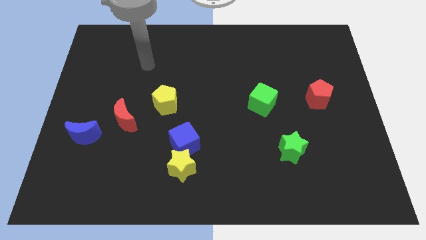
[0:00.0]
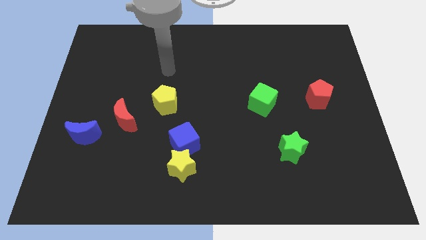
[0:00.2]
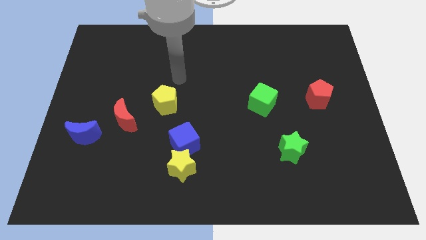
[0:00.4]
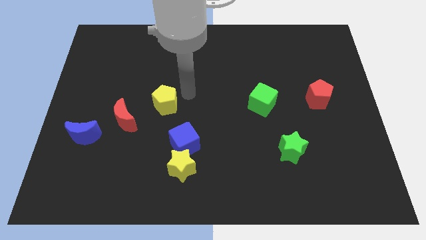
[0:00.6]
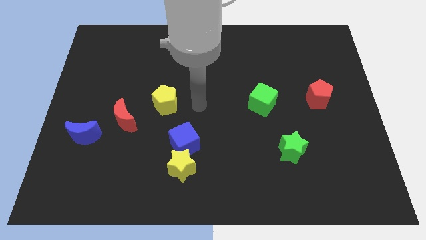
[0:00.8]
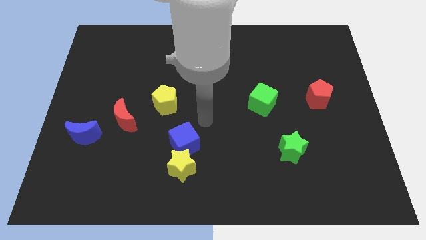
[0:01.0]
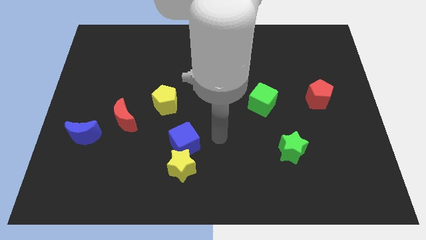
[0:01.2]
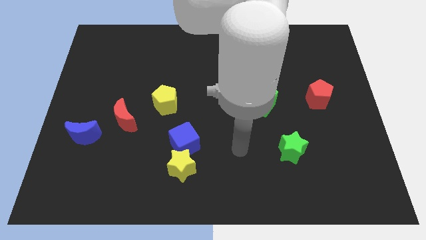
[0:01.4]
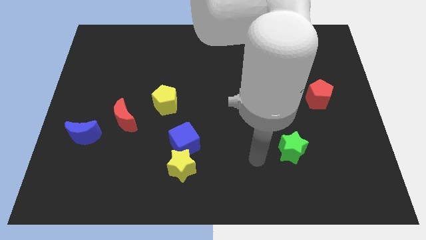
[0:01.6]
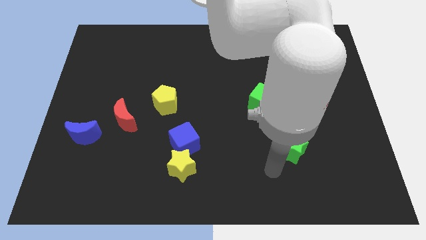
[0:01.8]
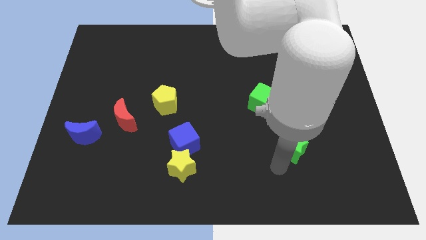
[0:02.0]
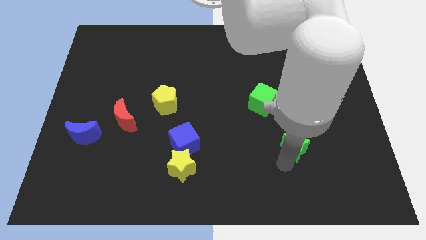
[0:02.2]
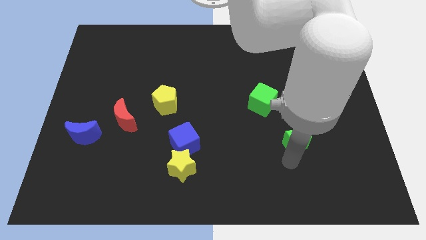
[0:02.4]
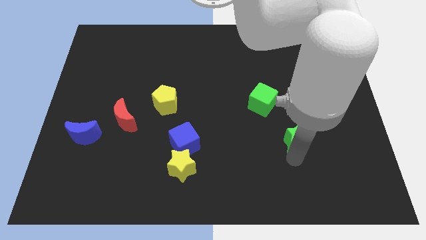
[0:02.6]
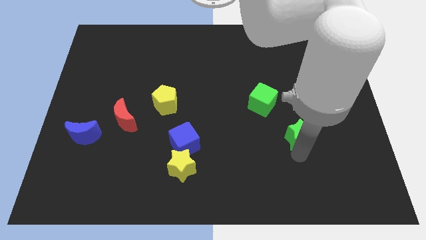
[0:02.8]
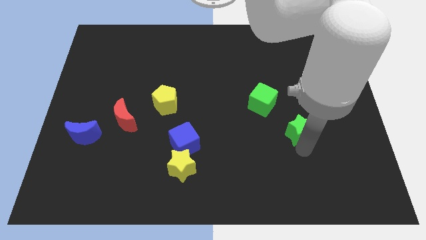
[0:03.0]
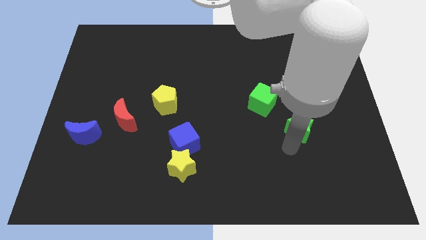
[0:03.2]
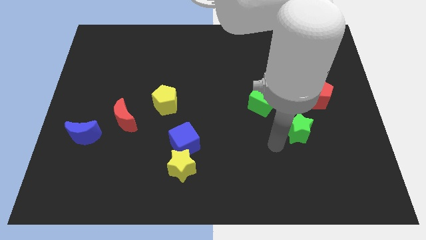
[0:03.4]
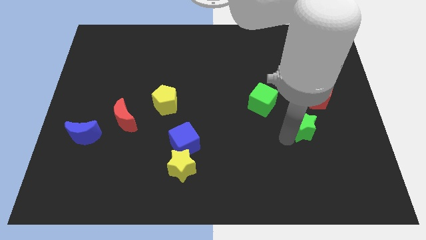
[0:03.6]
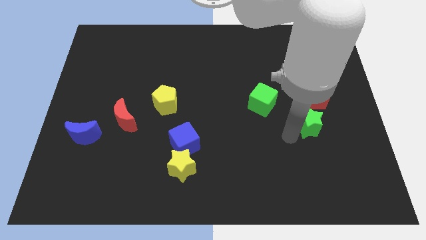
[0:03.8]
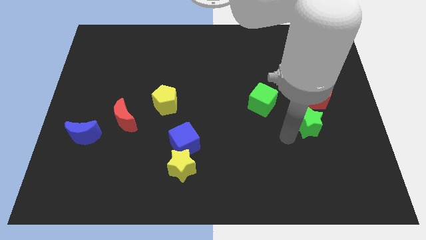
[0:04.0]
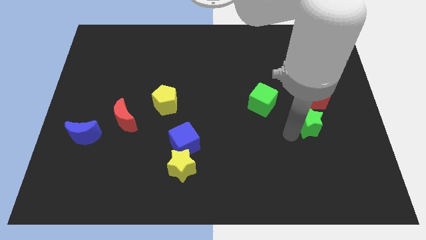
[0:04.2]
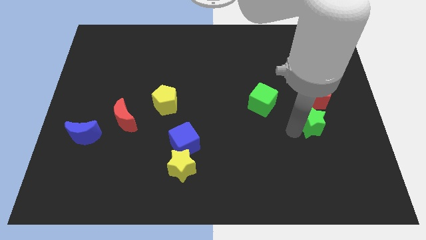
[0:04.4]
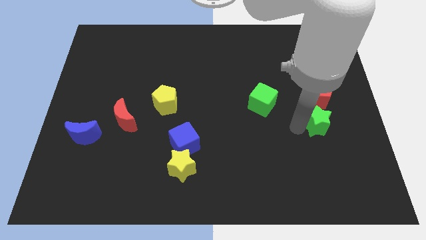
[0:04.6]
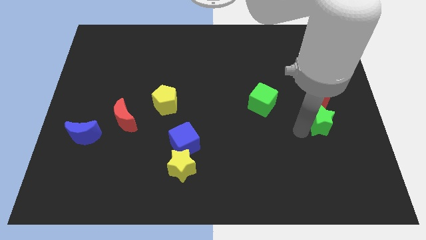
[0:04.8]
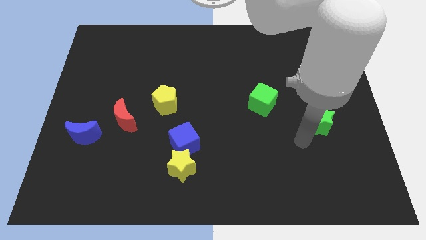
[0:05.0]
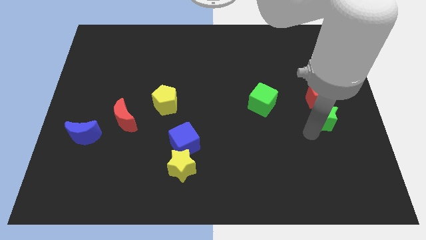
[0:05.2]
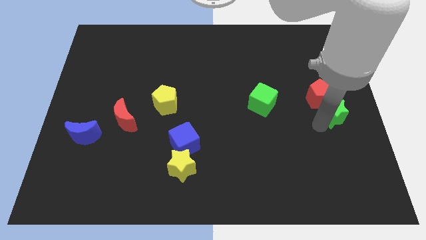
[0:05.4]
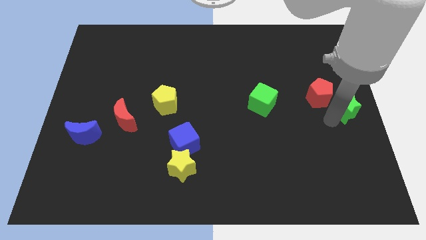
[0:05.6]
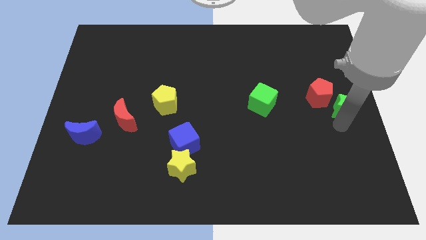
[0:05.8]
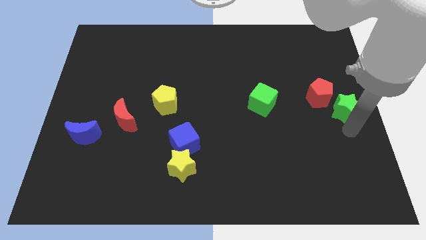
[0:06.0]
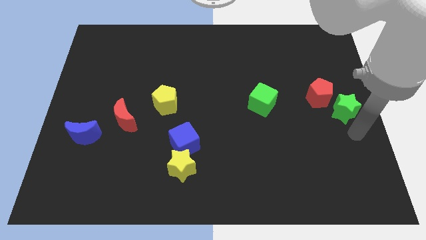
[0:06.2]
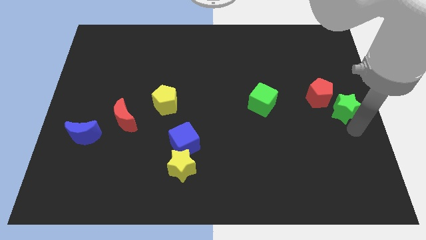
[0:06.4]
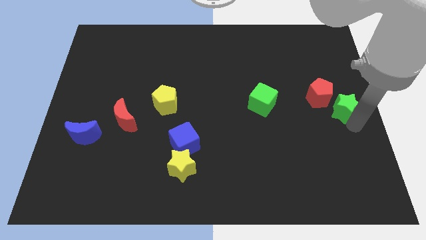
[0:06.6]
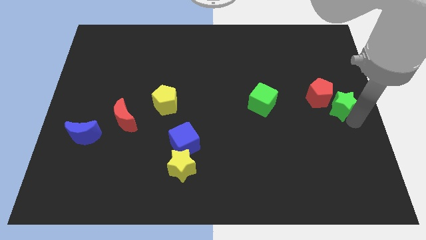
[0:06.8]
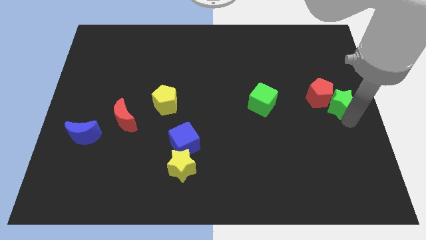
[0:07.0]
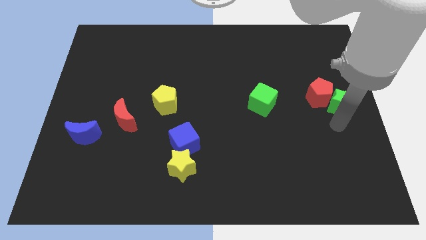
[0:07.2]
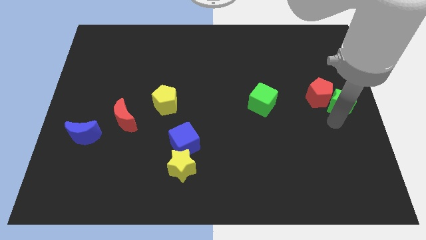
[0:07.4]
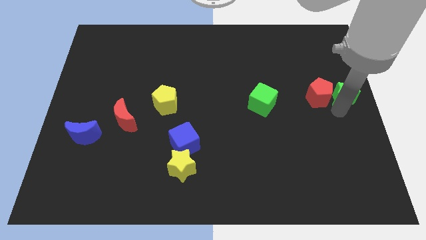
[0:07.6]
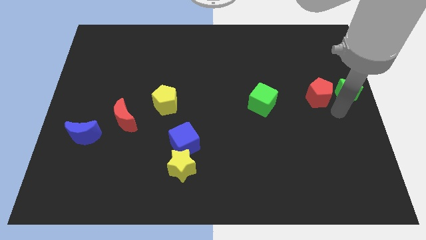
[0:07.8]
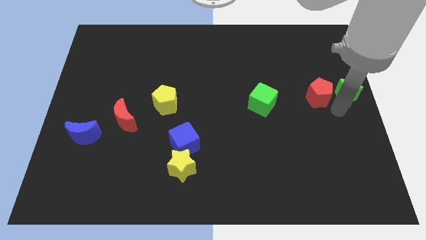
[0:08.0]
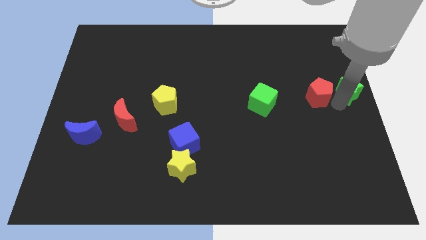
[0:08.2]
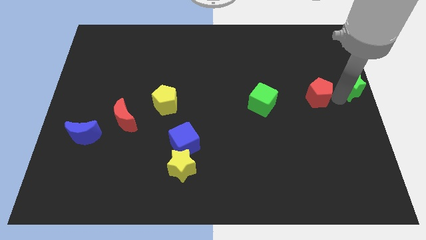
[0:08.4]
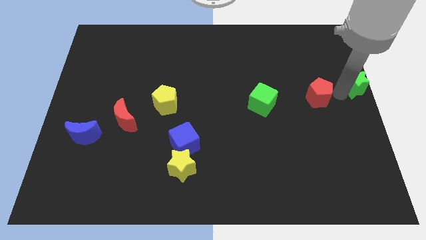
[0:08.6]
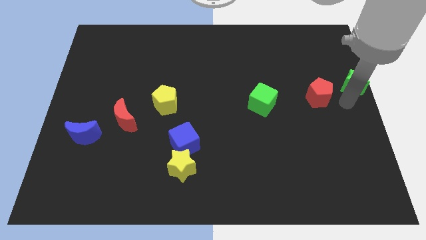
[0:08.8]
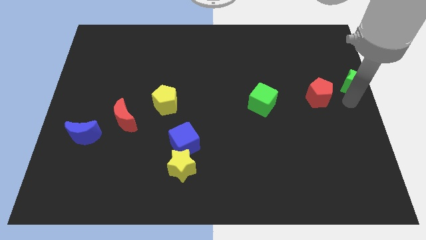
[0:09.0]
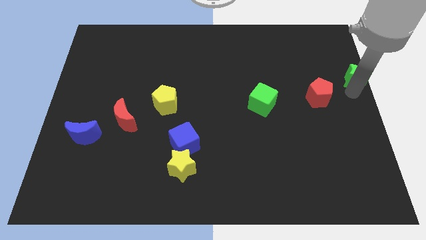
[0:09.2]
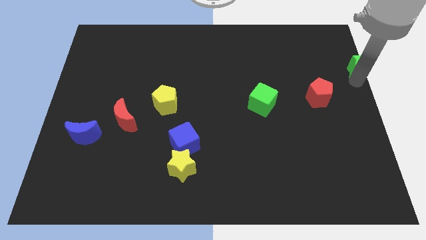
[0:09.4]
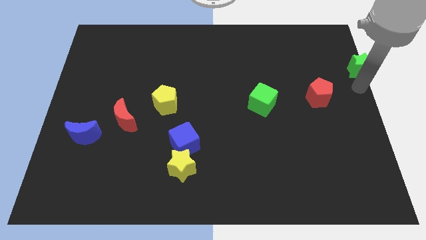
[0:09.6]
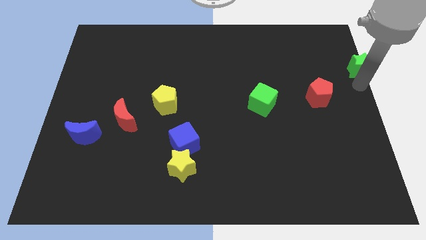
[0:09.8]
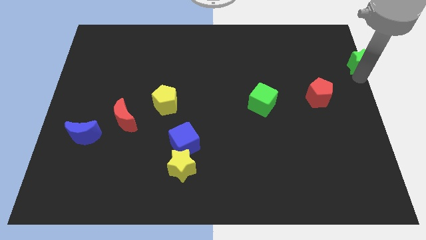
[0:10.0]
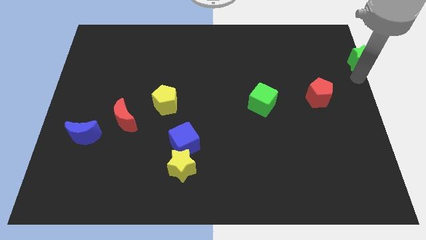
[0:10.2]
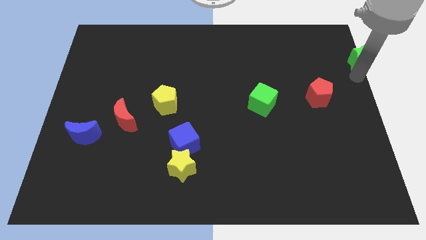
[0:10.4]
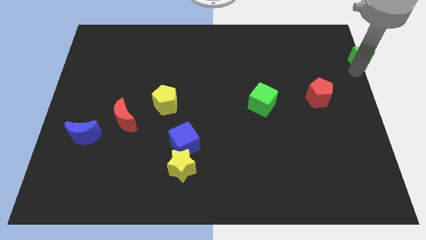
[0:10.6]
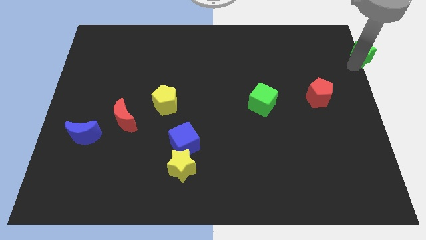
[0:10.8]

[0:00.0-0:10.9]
put the green star to the top right of the board

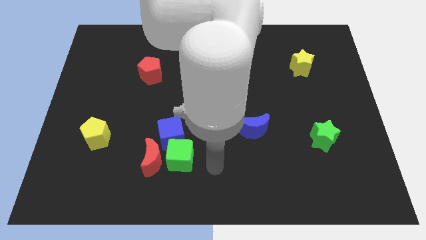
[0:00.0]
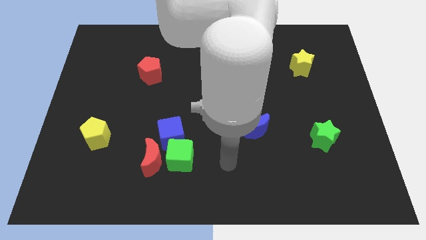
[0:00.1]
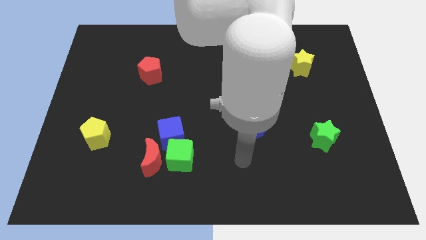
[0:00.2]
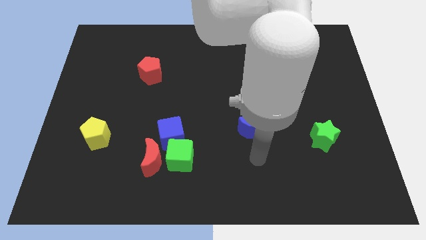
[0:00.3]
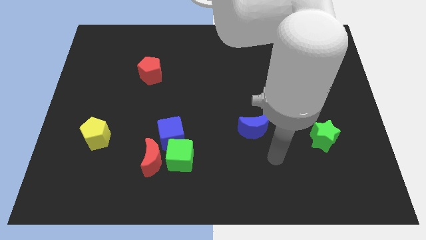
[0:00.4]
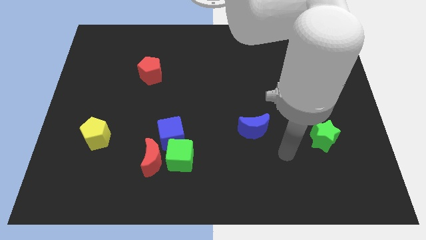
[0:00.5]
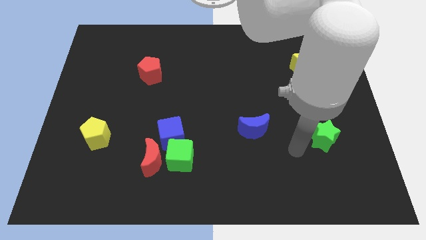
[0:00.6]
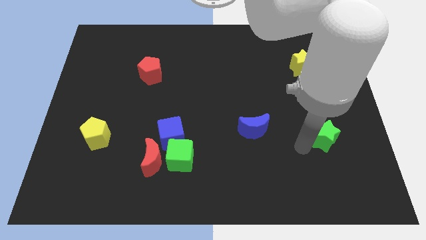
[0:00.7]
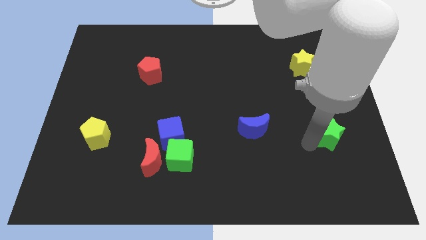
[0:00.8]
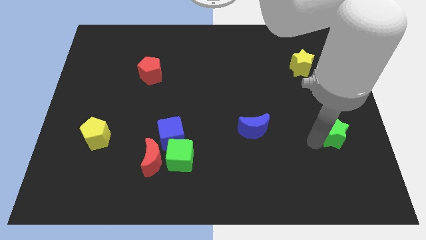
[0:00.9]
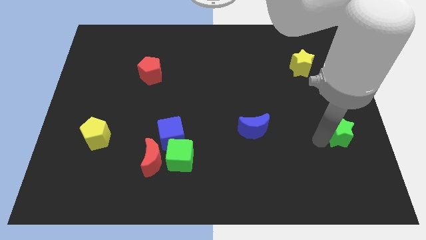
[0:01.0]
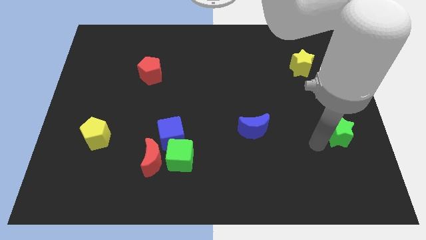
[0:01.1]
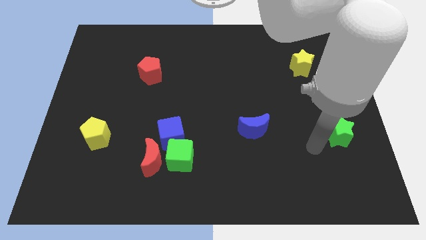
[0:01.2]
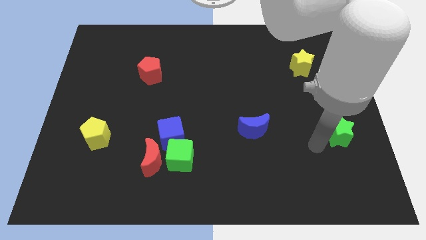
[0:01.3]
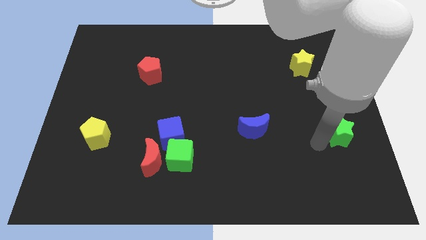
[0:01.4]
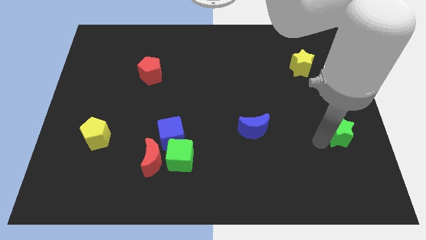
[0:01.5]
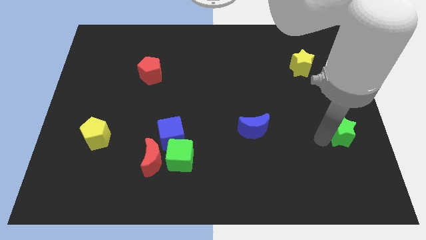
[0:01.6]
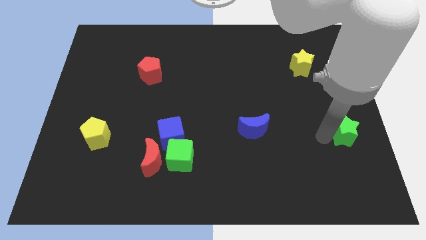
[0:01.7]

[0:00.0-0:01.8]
push the green star to the center right
